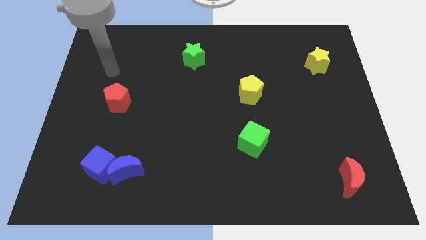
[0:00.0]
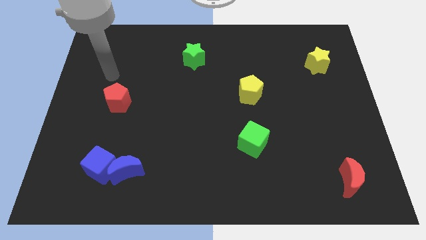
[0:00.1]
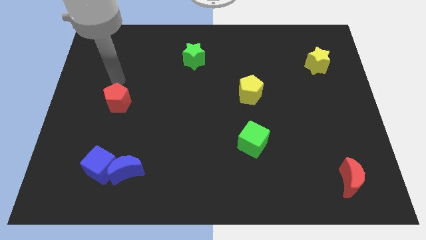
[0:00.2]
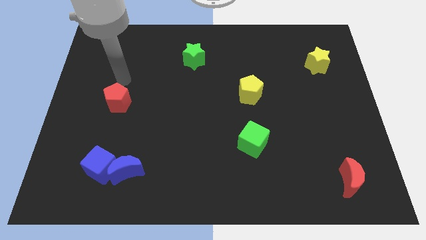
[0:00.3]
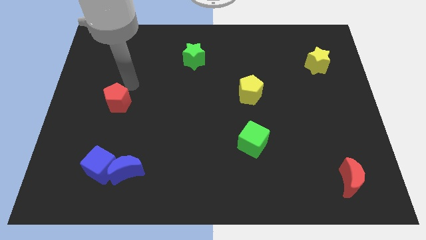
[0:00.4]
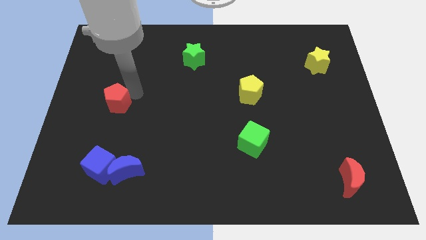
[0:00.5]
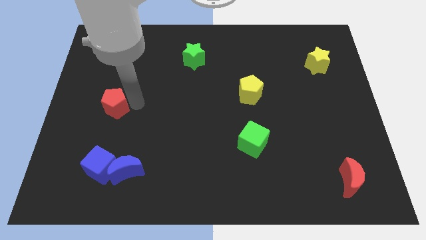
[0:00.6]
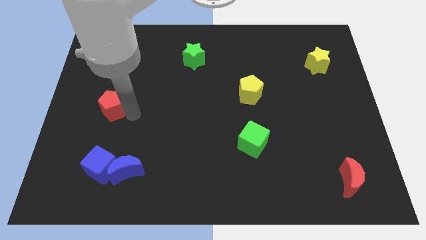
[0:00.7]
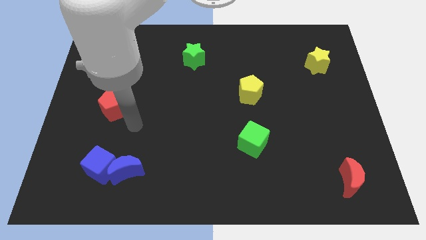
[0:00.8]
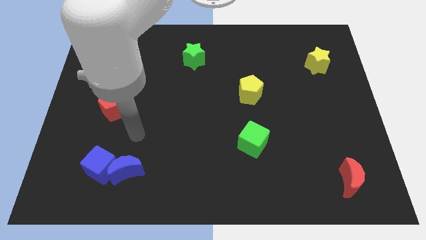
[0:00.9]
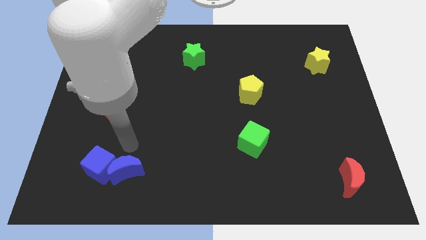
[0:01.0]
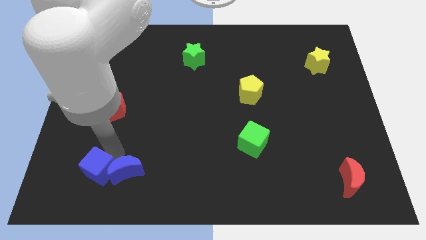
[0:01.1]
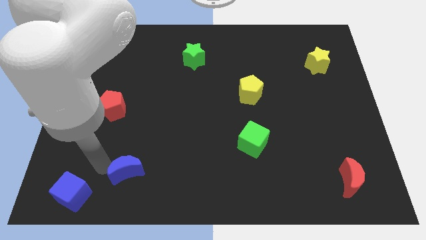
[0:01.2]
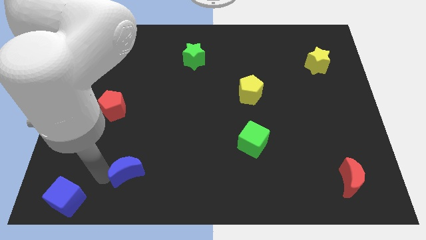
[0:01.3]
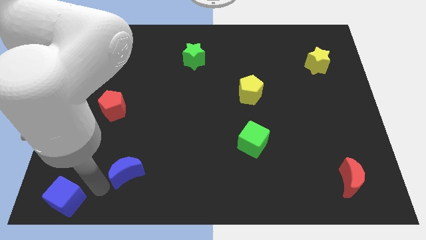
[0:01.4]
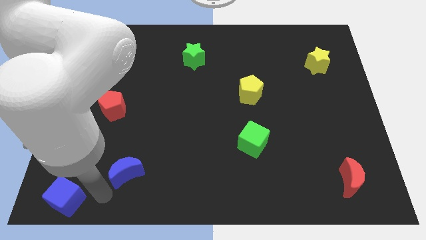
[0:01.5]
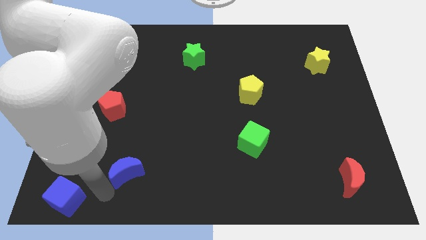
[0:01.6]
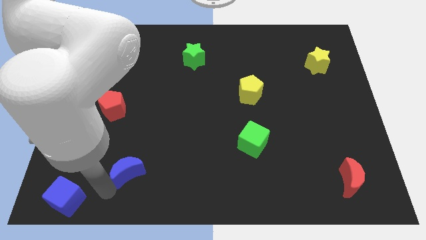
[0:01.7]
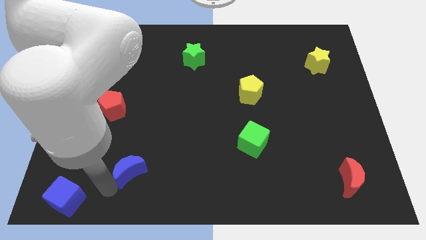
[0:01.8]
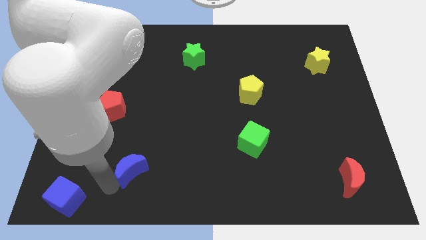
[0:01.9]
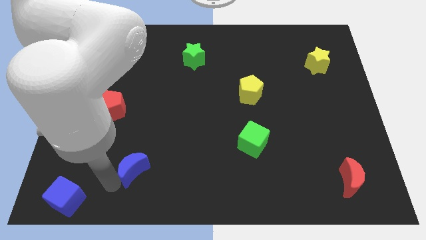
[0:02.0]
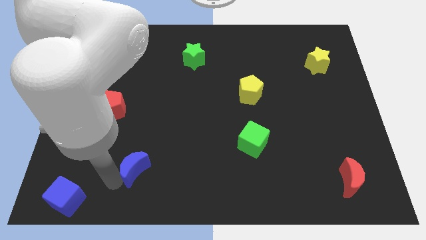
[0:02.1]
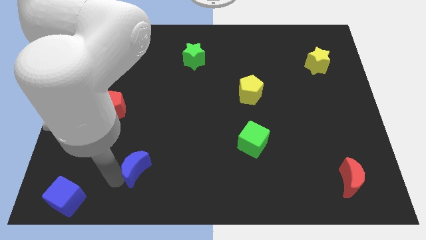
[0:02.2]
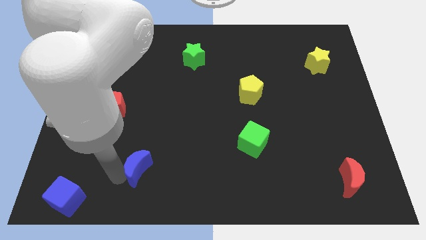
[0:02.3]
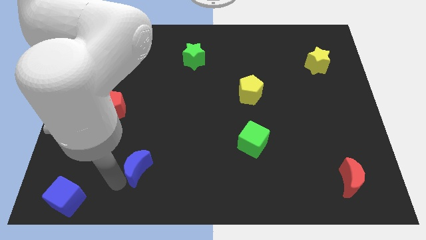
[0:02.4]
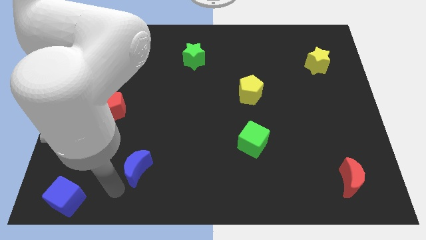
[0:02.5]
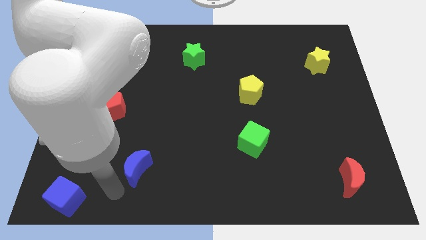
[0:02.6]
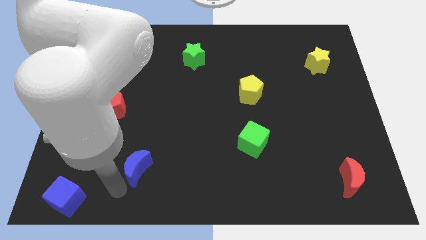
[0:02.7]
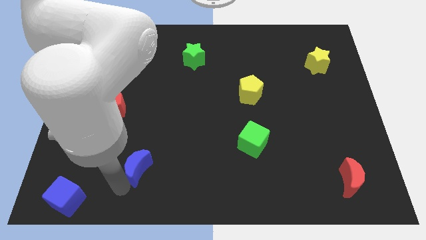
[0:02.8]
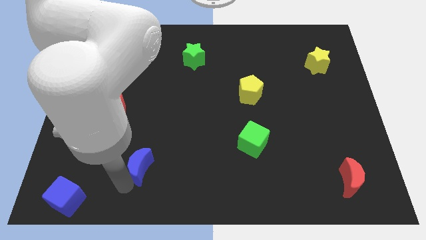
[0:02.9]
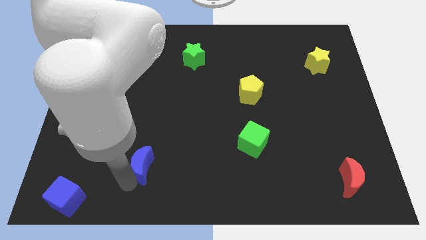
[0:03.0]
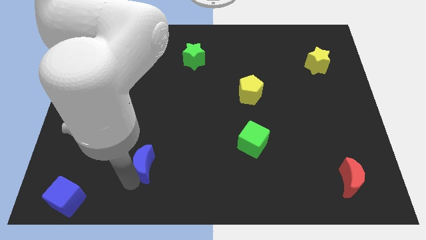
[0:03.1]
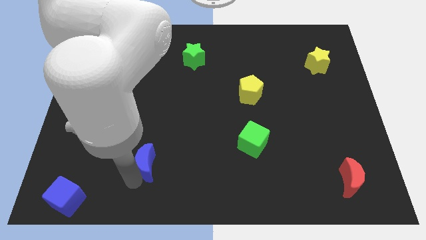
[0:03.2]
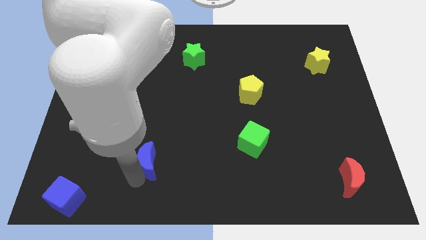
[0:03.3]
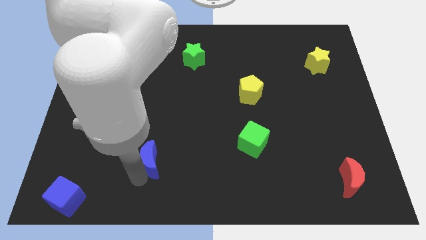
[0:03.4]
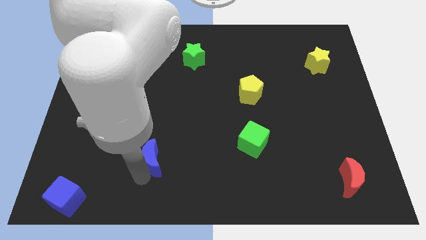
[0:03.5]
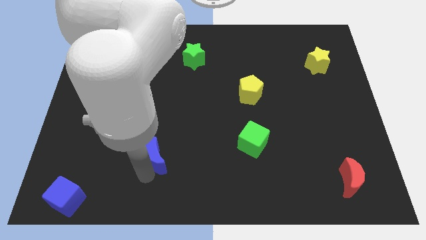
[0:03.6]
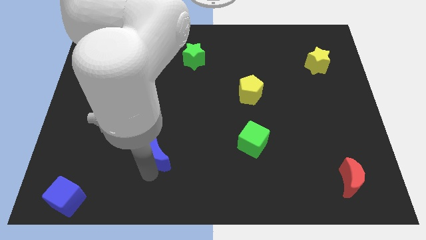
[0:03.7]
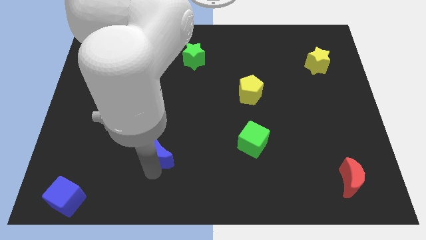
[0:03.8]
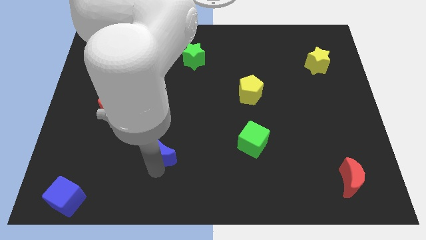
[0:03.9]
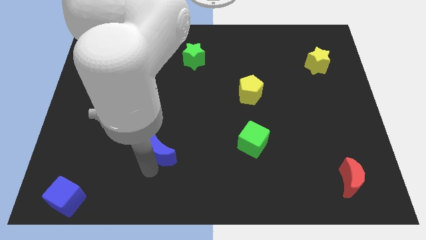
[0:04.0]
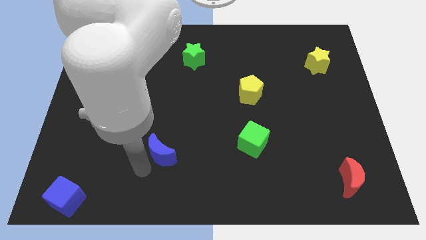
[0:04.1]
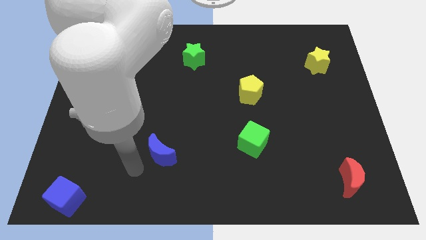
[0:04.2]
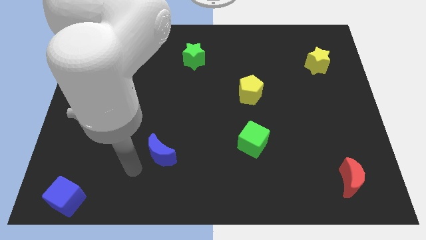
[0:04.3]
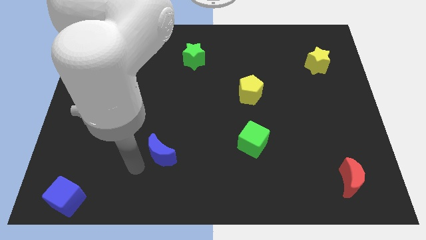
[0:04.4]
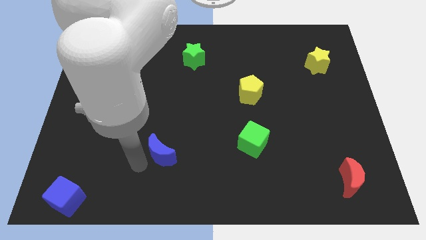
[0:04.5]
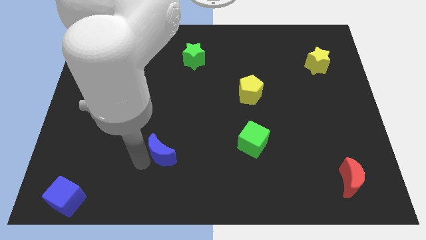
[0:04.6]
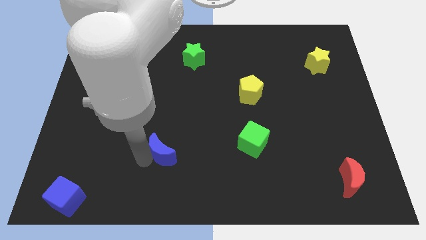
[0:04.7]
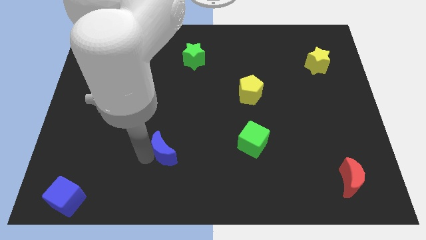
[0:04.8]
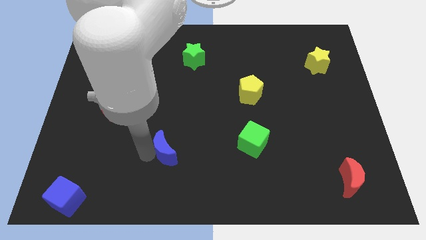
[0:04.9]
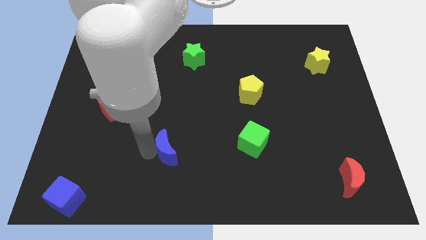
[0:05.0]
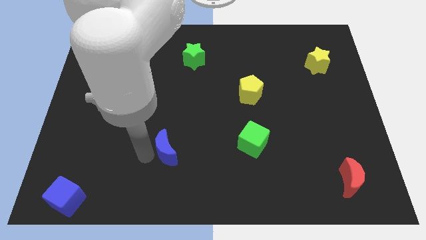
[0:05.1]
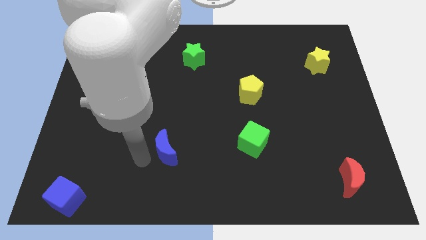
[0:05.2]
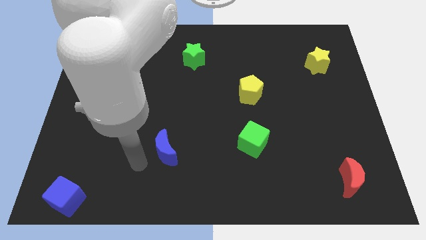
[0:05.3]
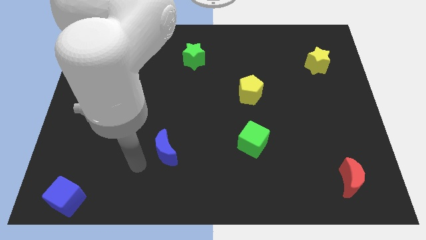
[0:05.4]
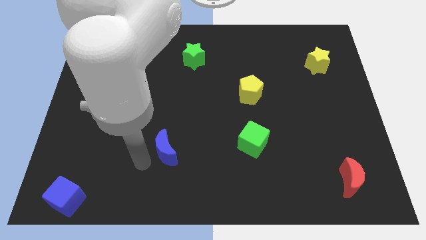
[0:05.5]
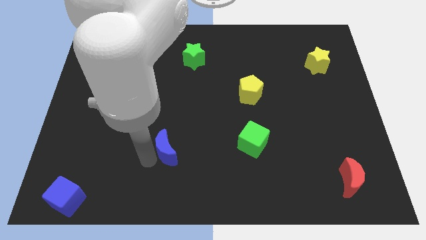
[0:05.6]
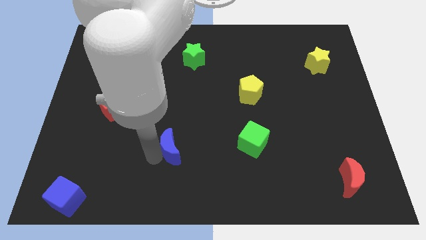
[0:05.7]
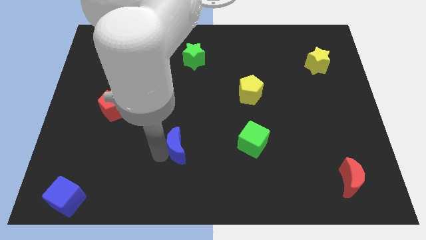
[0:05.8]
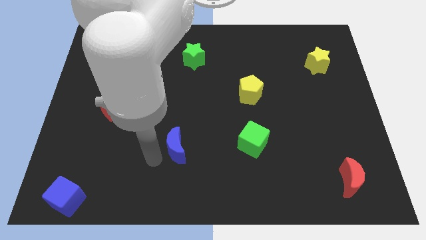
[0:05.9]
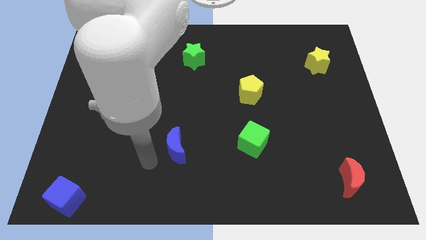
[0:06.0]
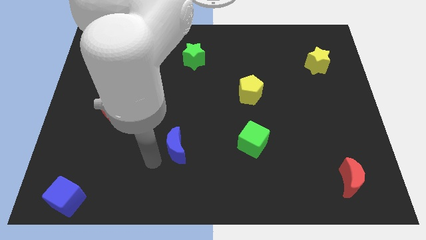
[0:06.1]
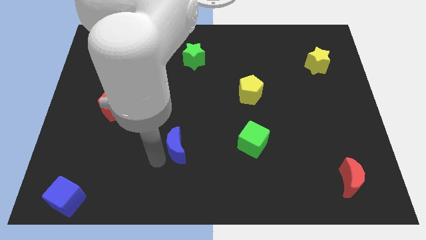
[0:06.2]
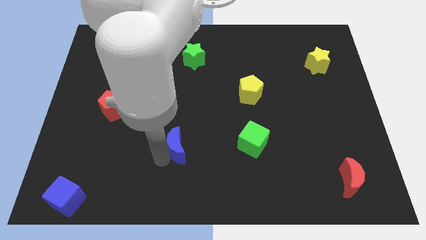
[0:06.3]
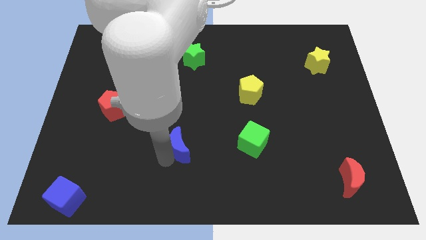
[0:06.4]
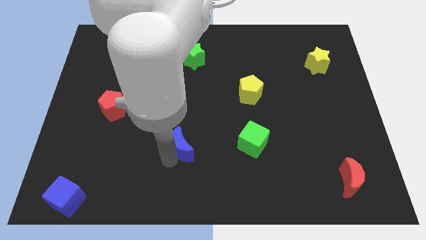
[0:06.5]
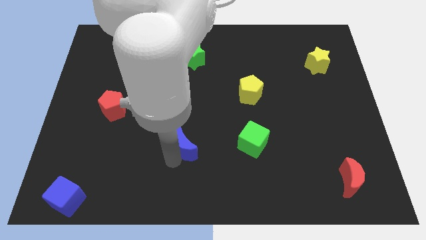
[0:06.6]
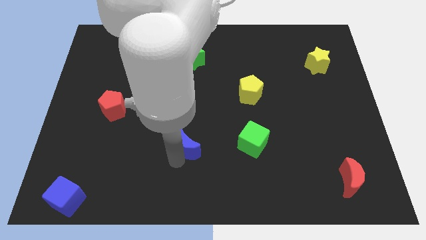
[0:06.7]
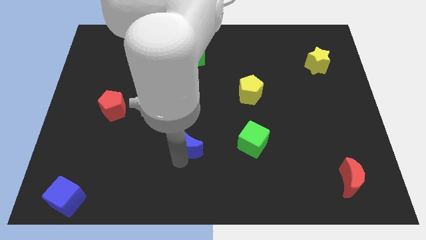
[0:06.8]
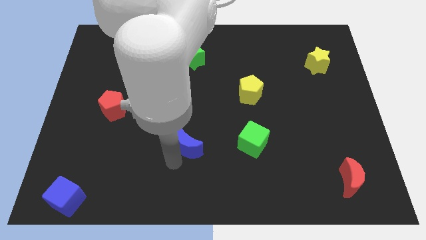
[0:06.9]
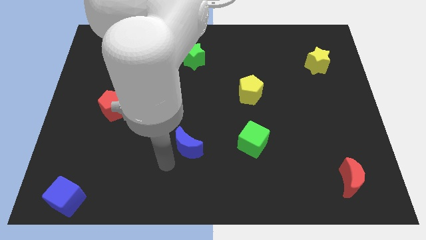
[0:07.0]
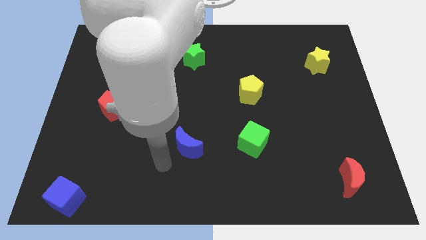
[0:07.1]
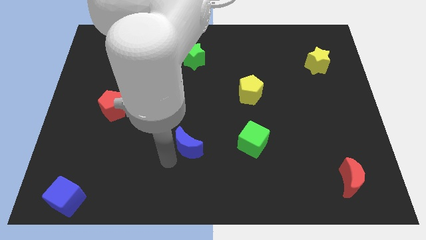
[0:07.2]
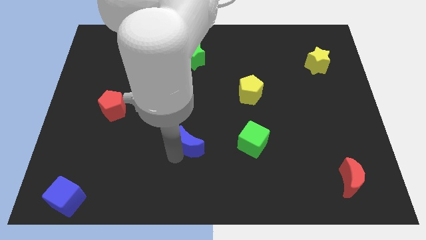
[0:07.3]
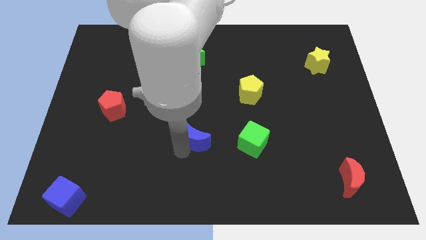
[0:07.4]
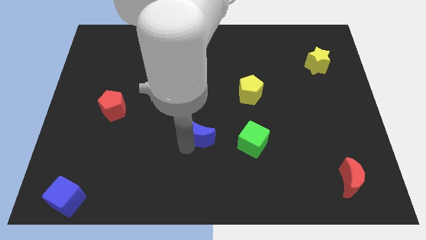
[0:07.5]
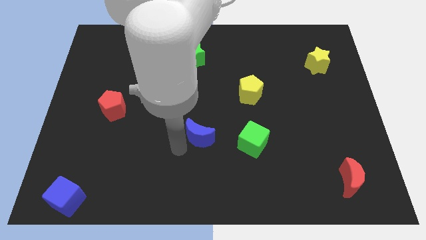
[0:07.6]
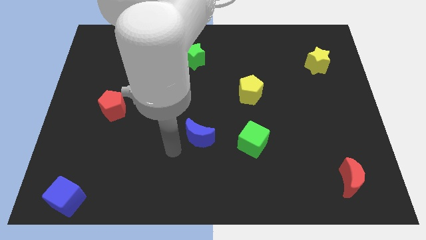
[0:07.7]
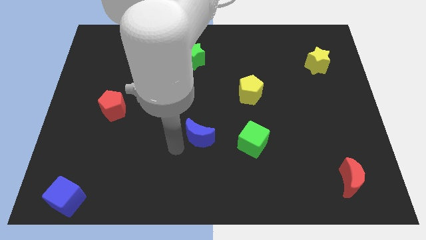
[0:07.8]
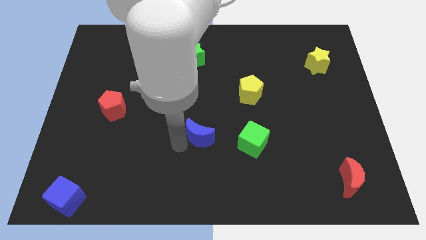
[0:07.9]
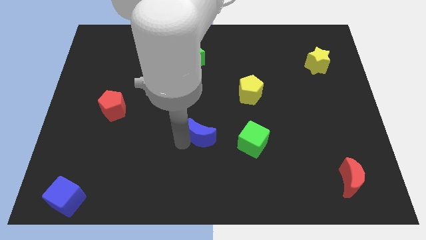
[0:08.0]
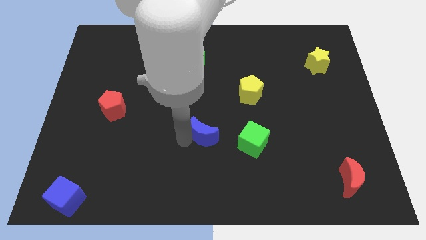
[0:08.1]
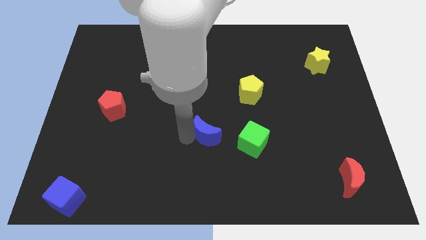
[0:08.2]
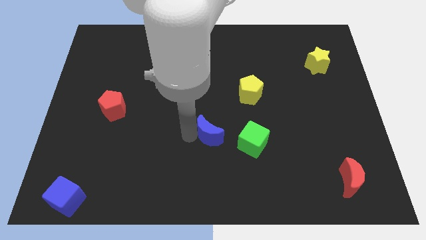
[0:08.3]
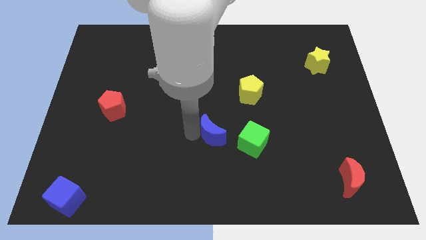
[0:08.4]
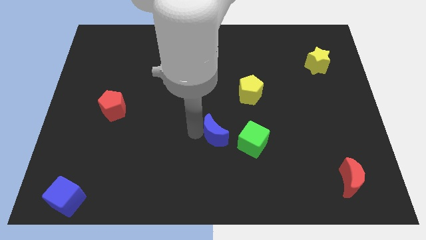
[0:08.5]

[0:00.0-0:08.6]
push the blue moon to the top left side of the green cube
